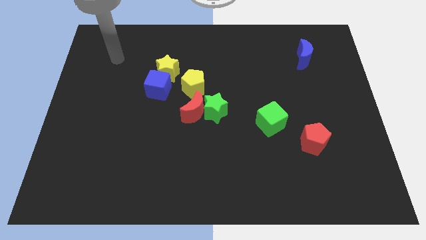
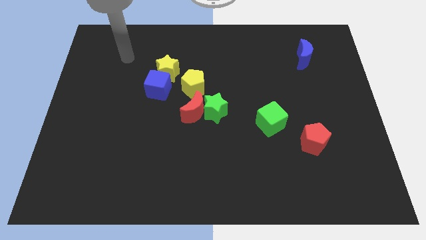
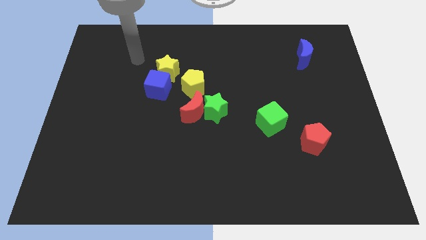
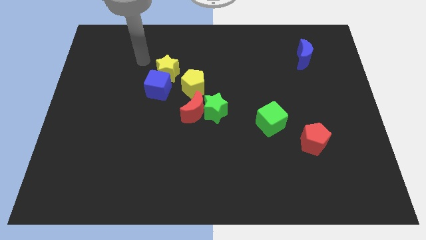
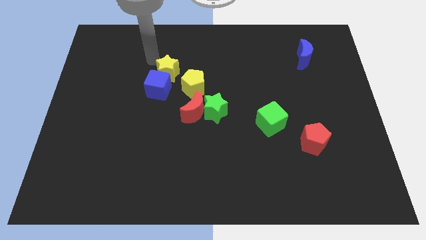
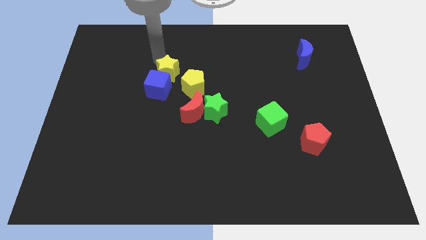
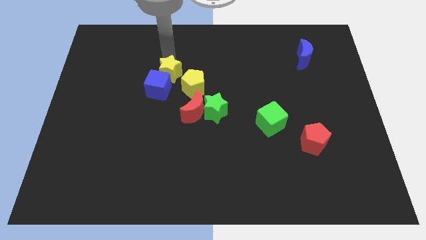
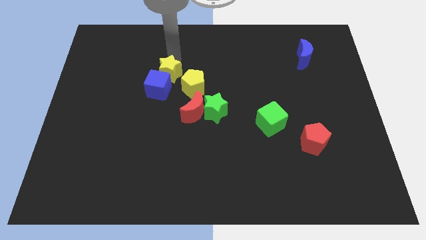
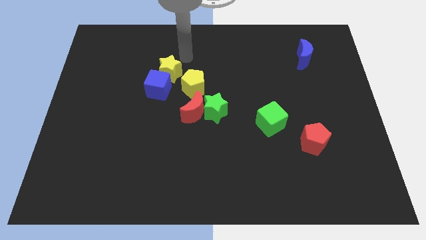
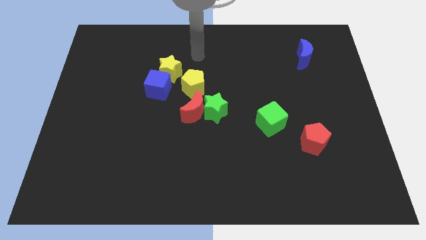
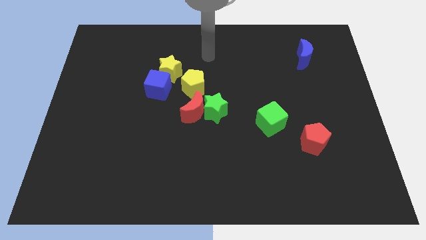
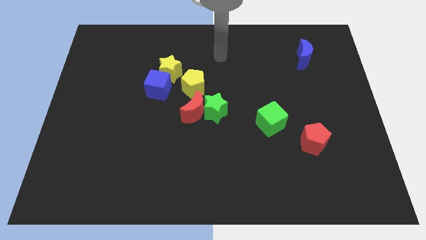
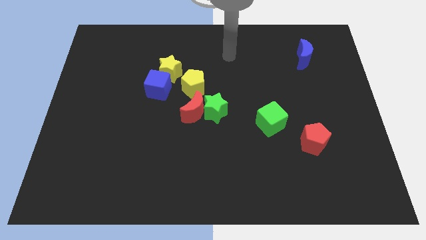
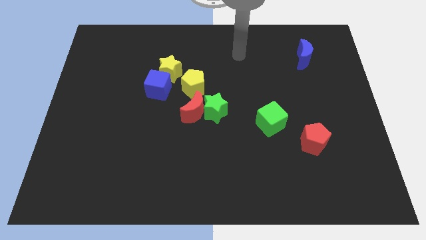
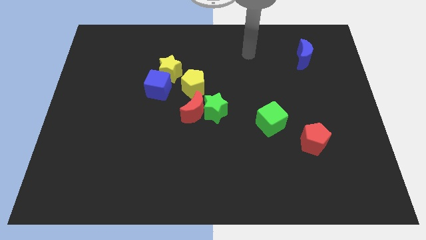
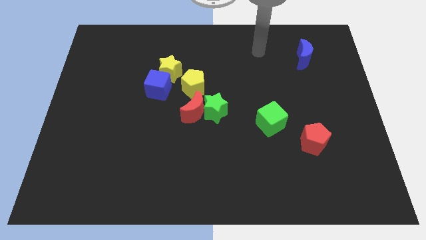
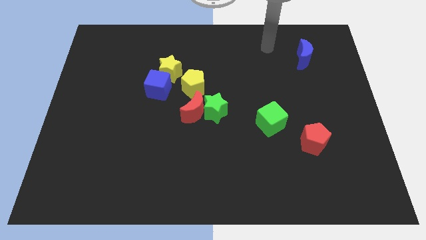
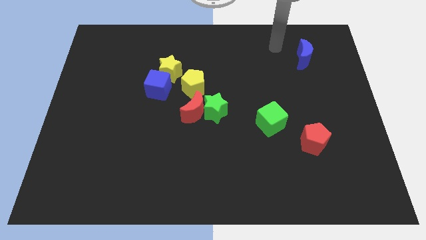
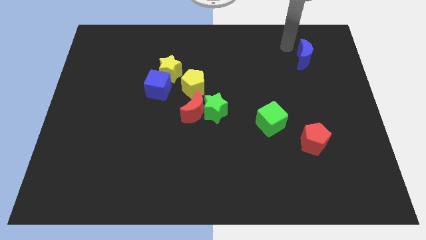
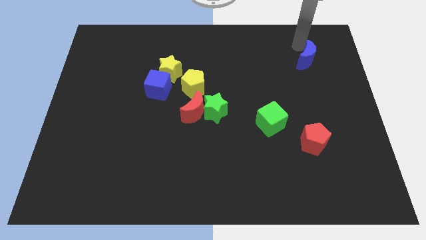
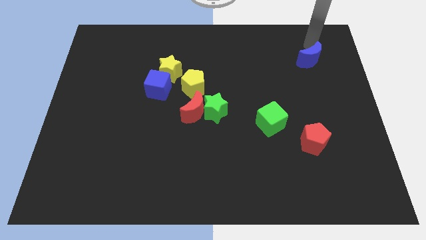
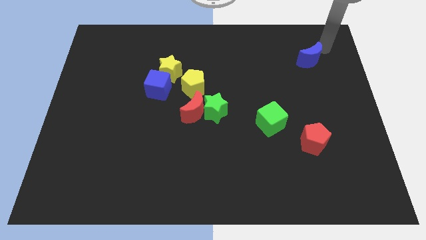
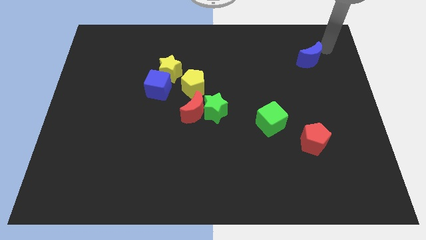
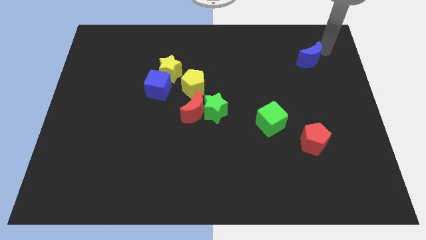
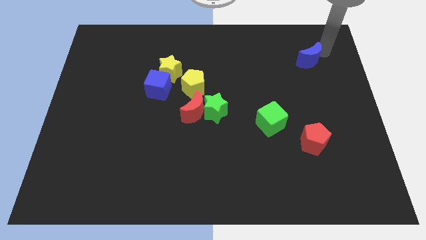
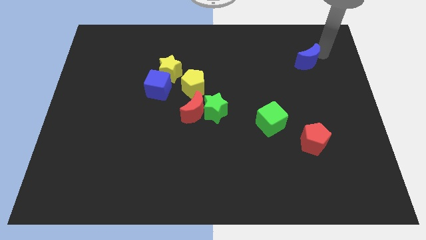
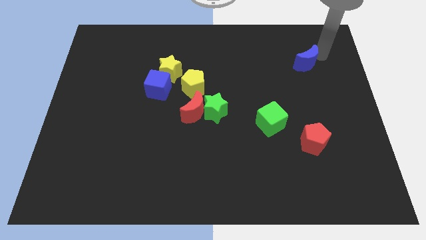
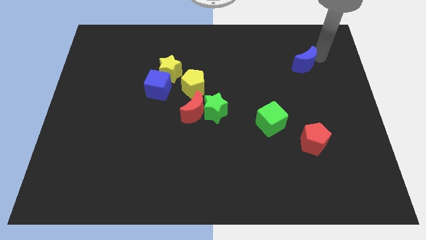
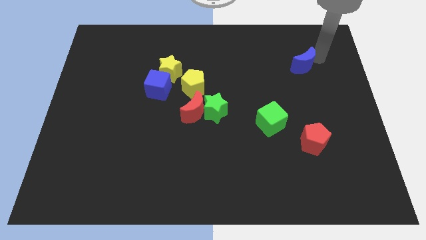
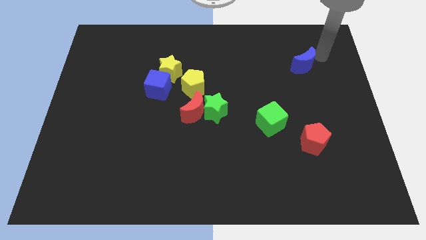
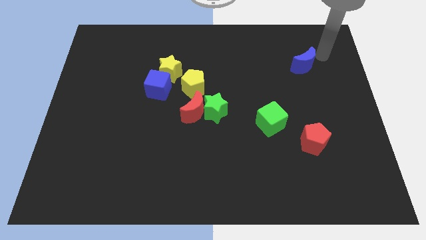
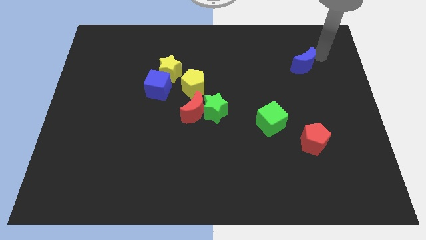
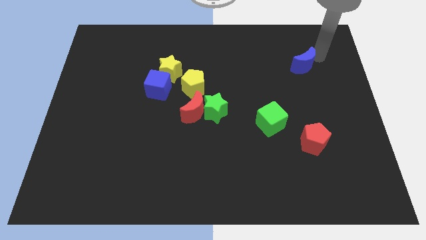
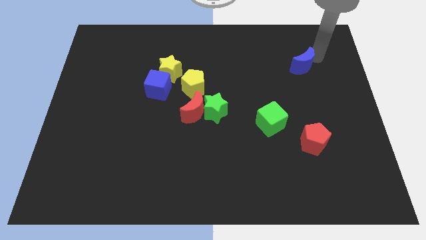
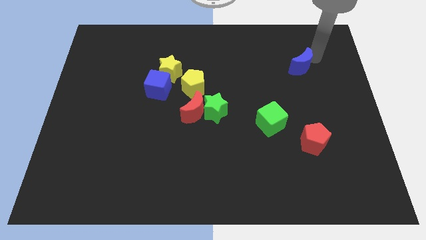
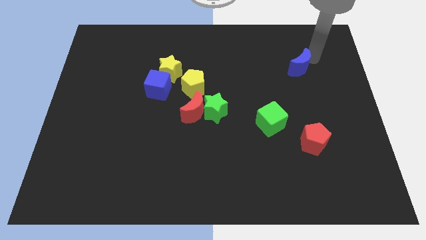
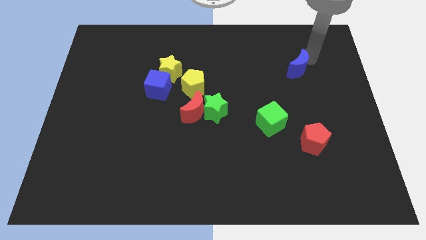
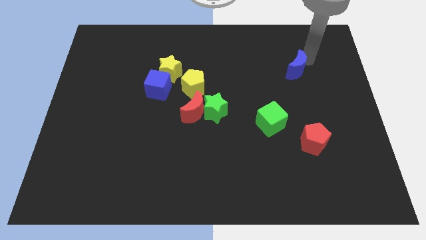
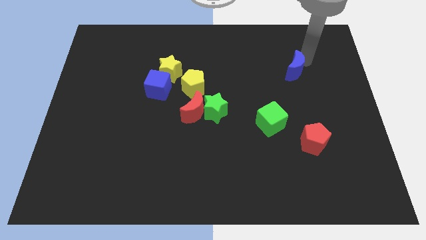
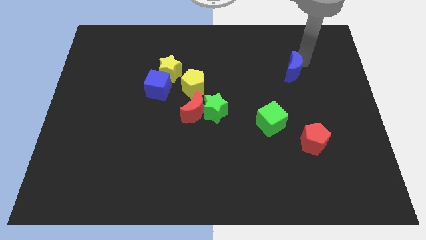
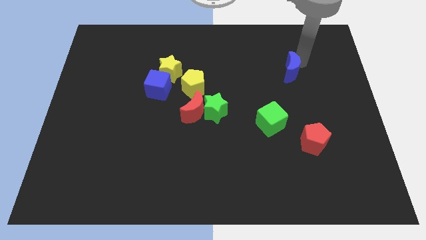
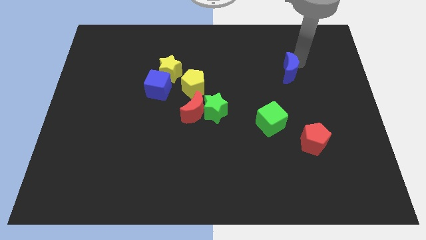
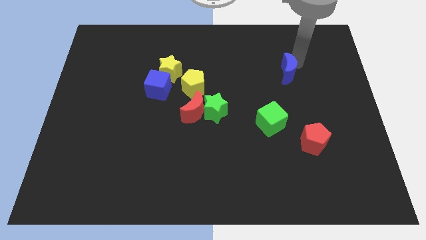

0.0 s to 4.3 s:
move the blue moon a bit down and then left

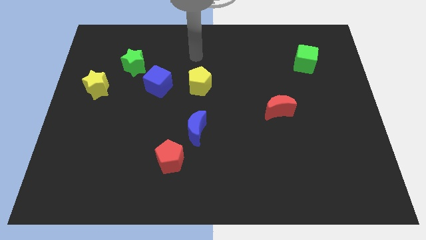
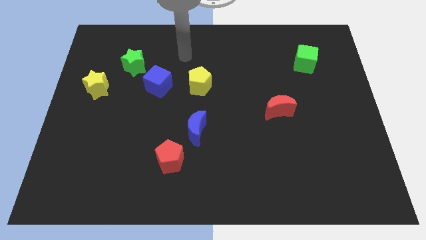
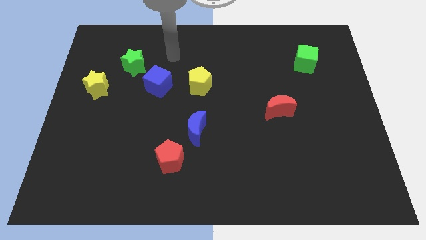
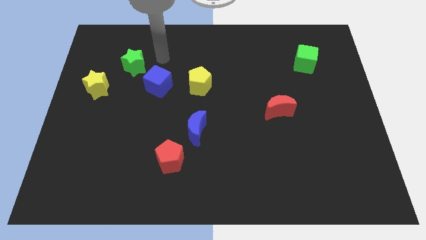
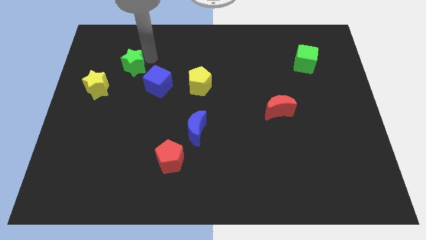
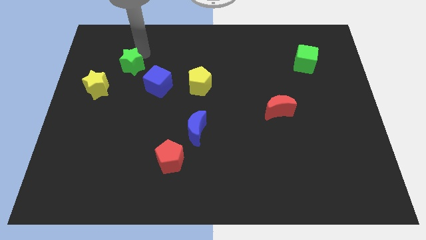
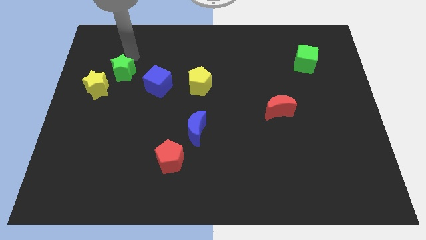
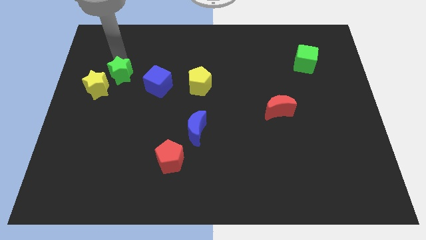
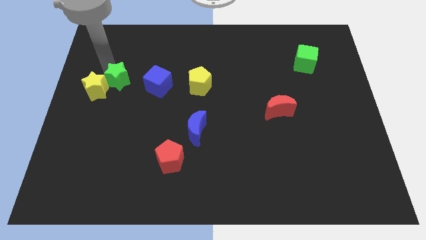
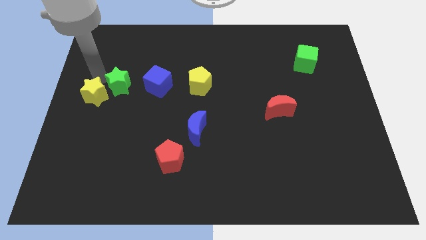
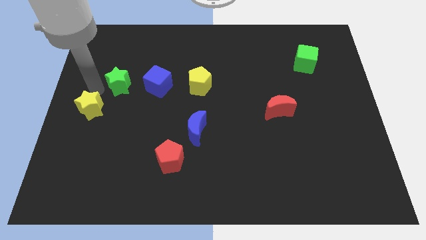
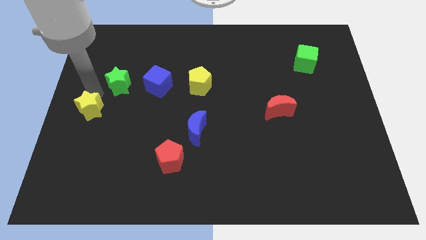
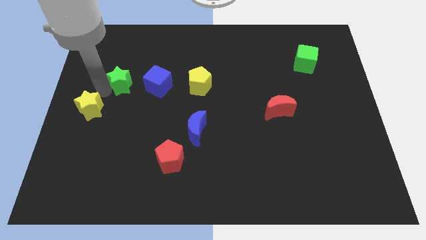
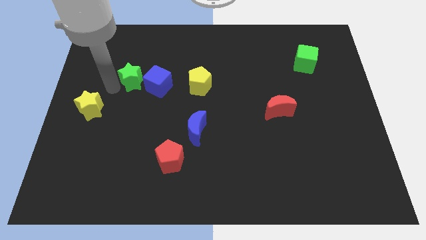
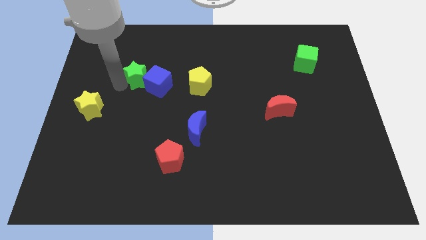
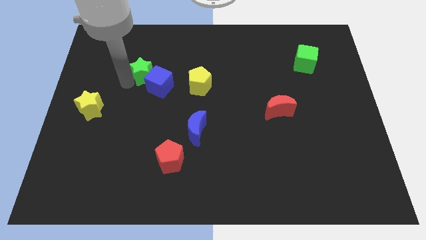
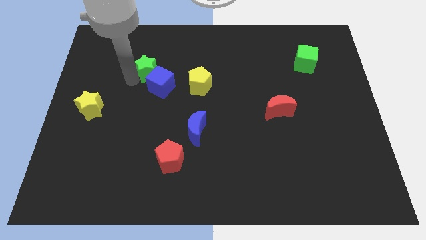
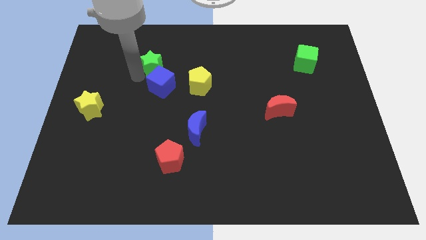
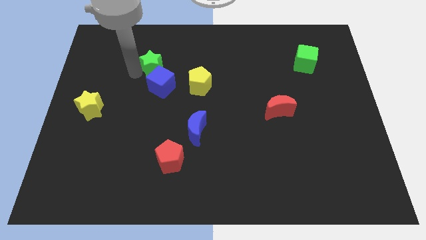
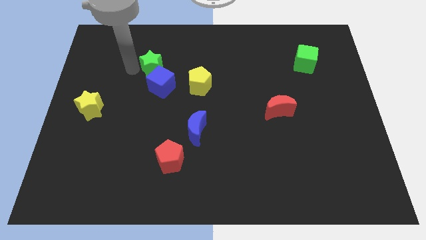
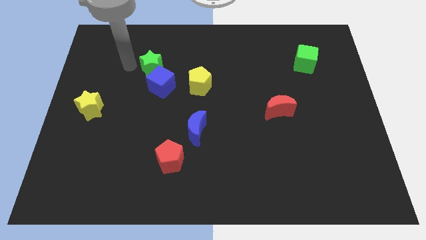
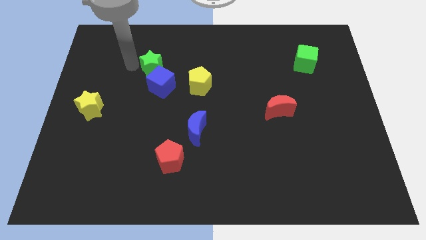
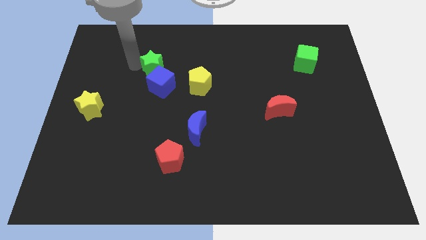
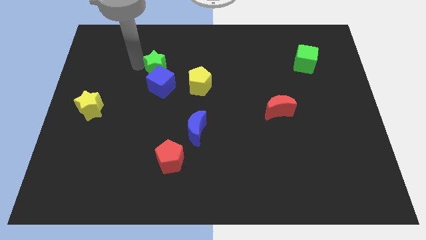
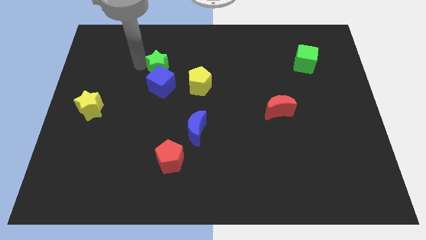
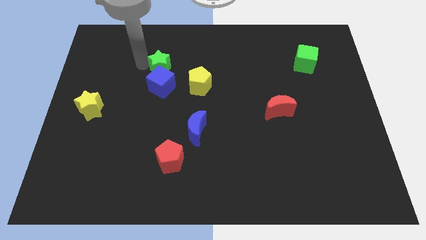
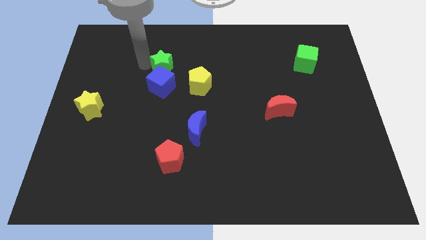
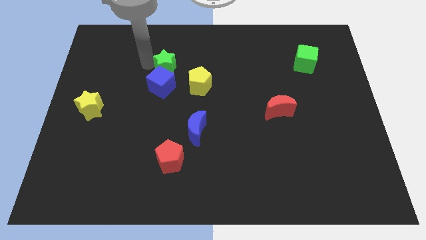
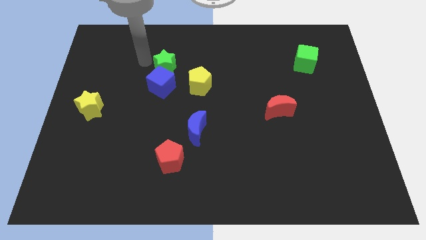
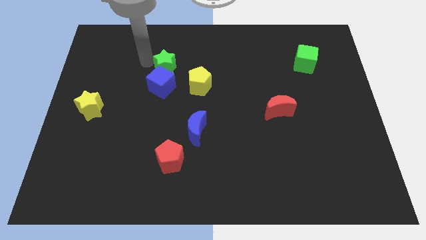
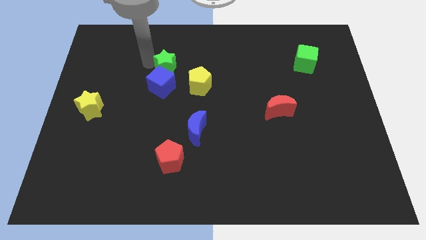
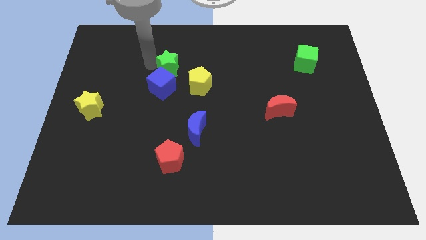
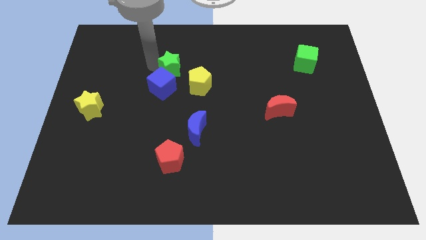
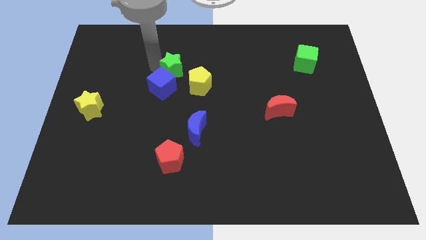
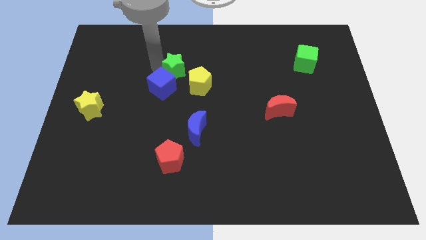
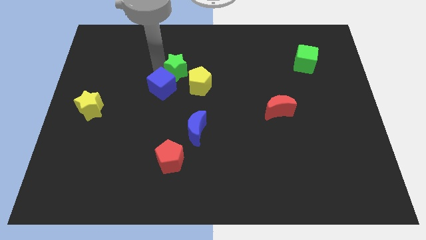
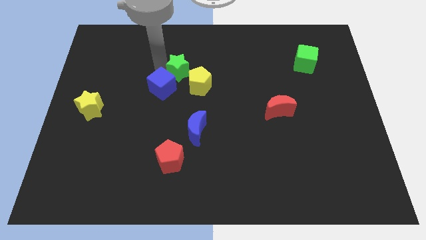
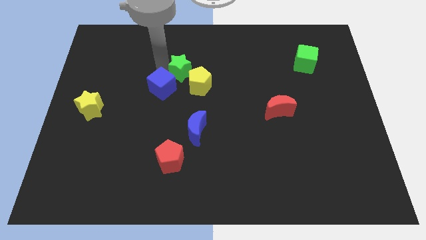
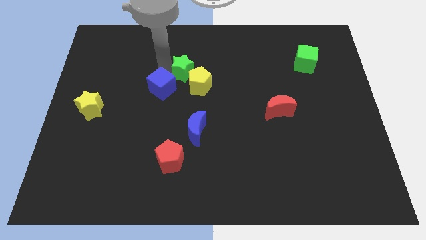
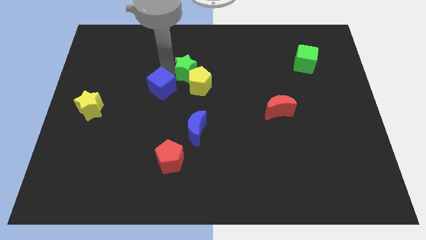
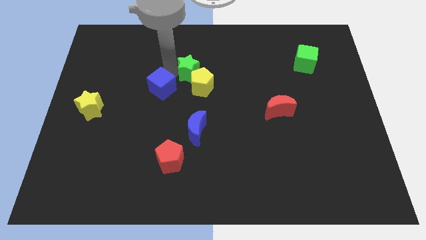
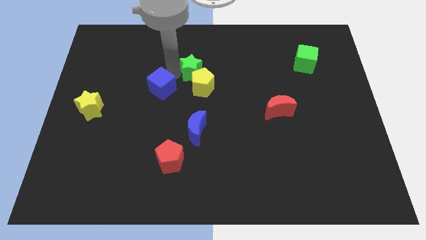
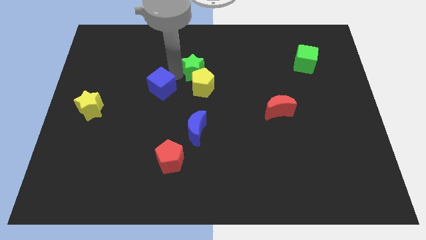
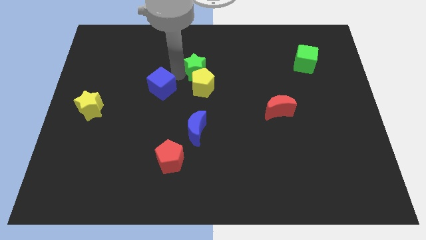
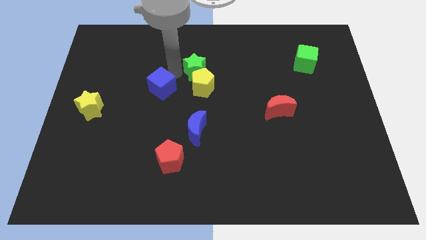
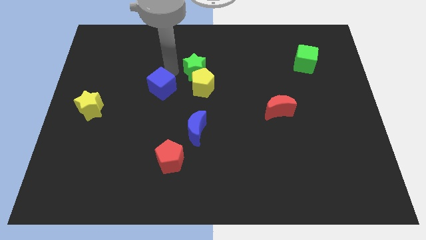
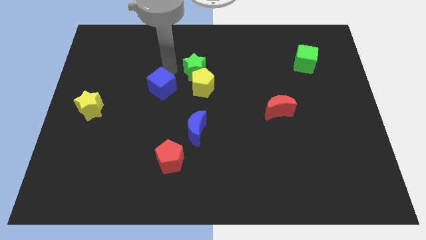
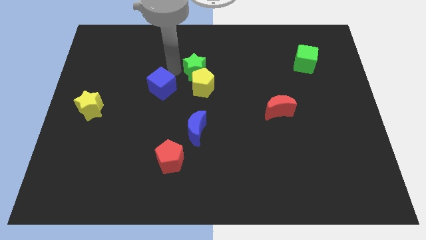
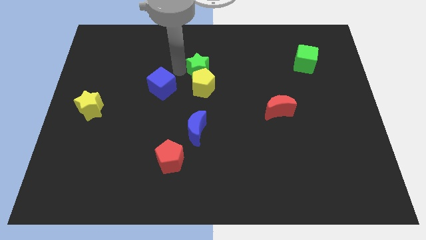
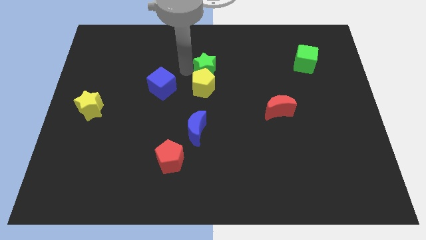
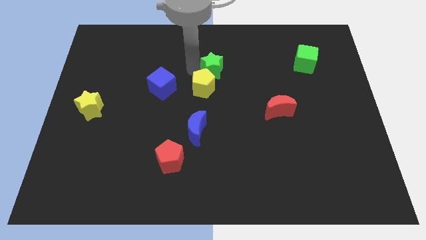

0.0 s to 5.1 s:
move the green star to the right
